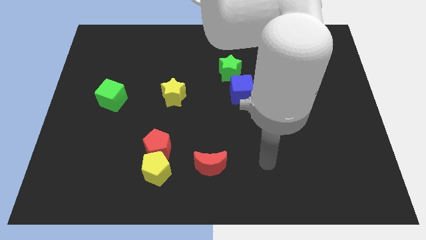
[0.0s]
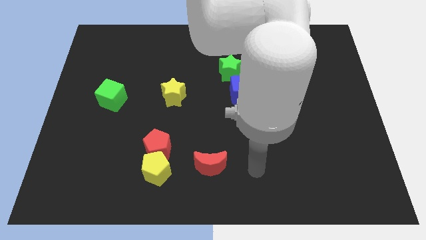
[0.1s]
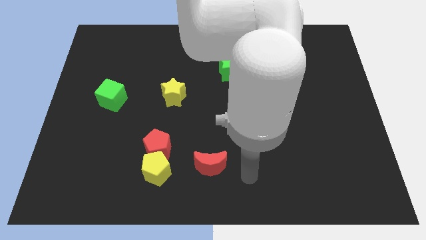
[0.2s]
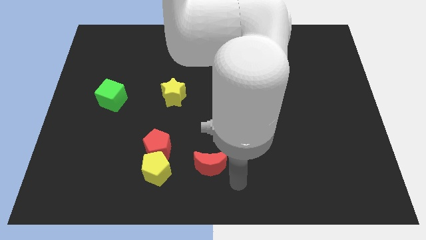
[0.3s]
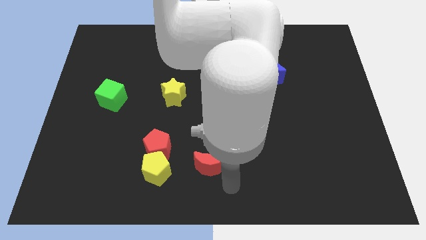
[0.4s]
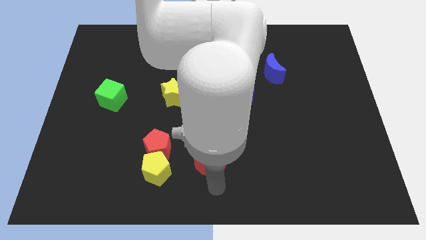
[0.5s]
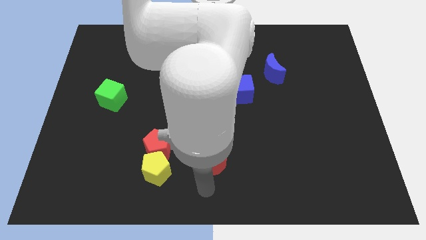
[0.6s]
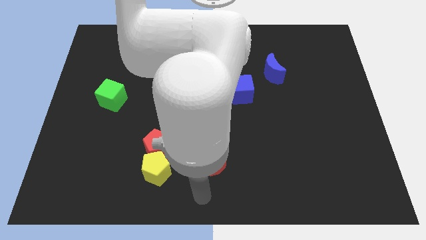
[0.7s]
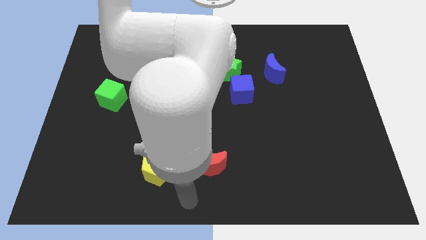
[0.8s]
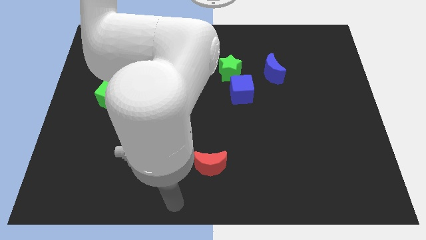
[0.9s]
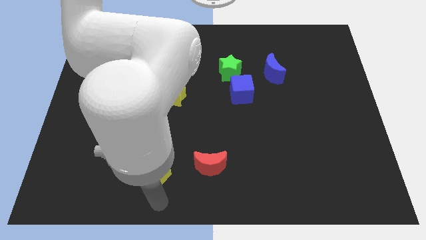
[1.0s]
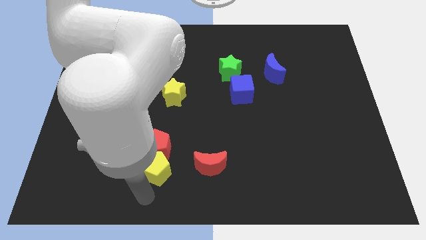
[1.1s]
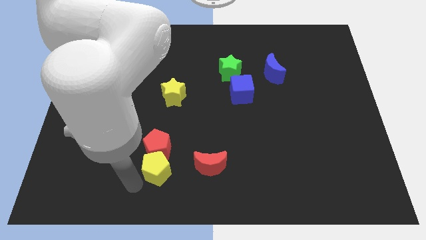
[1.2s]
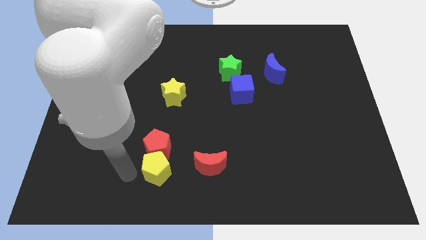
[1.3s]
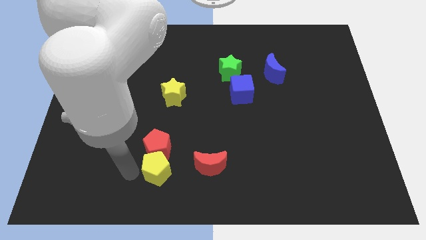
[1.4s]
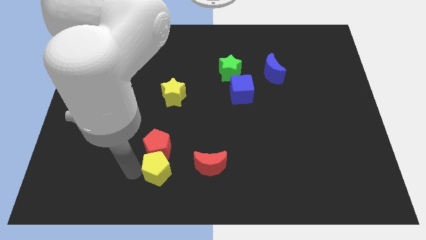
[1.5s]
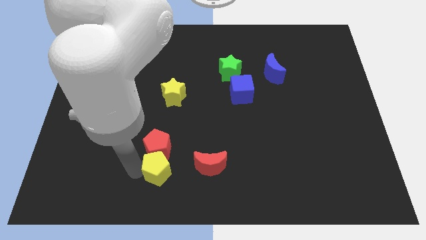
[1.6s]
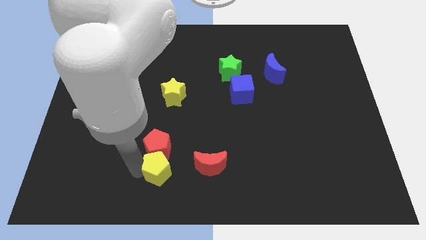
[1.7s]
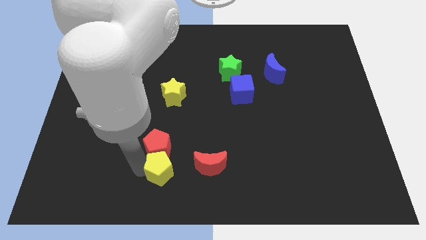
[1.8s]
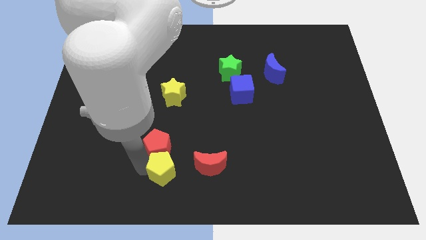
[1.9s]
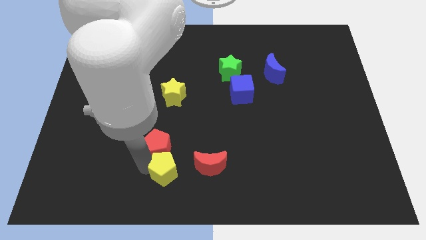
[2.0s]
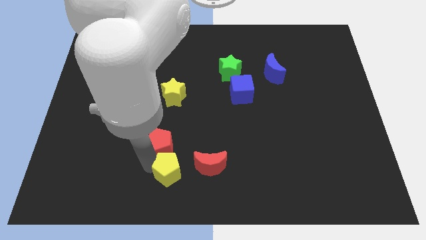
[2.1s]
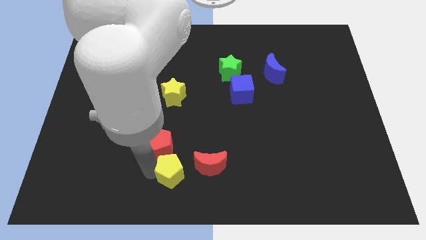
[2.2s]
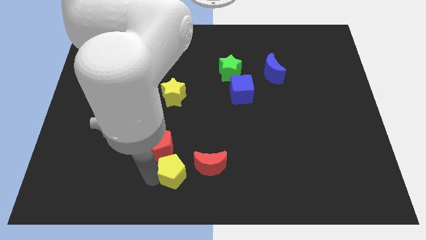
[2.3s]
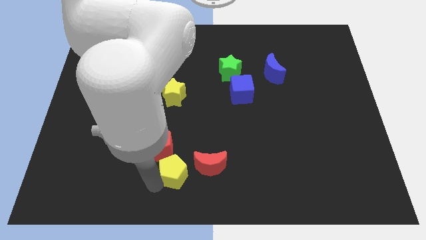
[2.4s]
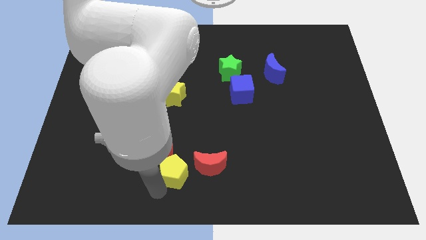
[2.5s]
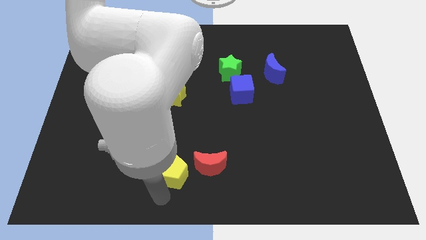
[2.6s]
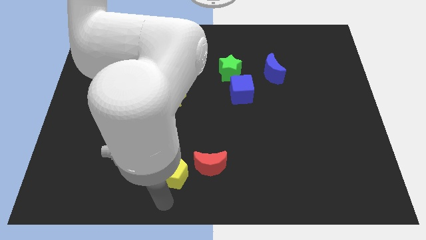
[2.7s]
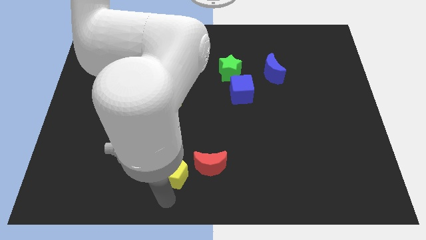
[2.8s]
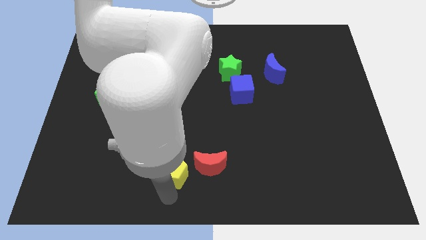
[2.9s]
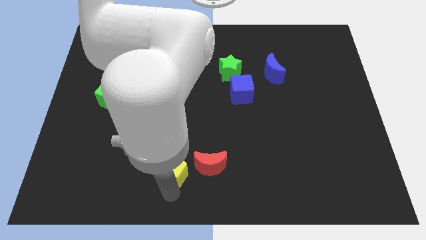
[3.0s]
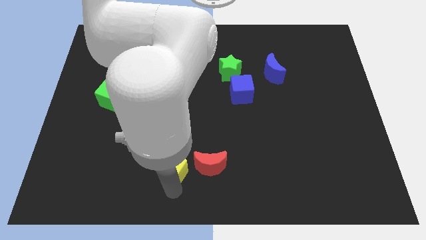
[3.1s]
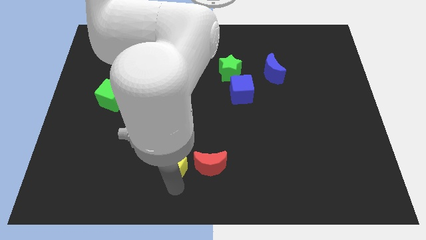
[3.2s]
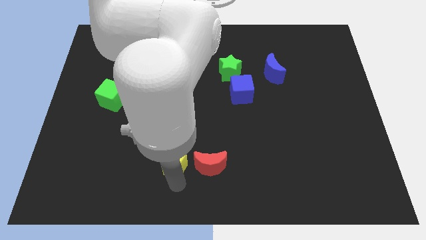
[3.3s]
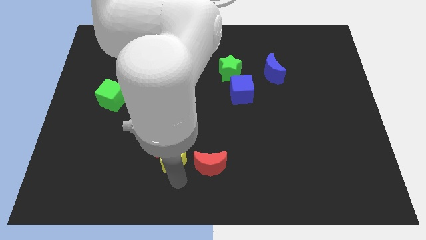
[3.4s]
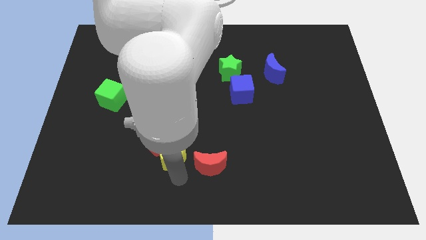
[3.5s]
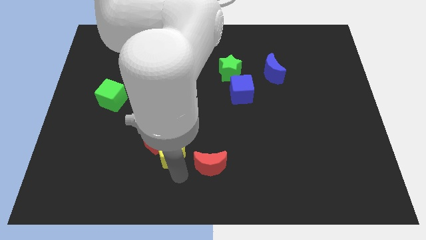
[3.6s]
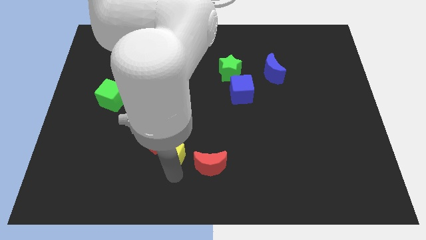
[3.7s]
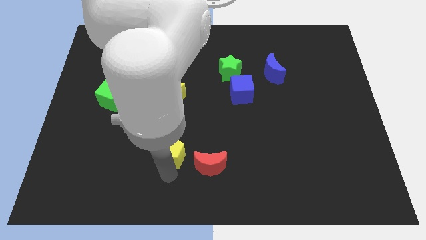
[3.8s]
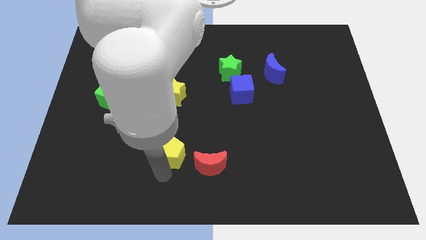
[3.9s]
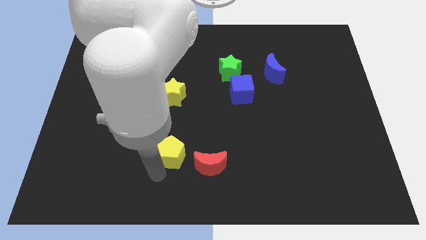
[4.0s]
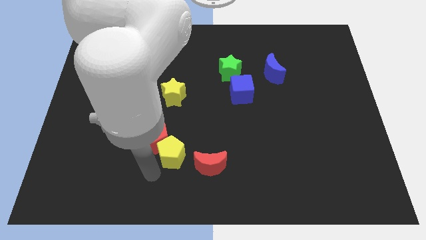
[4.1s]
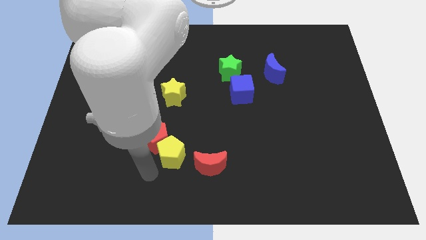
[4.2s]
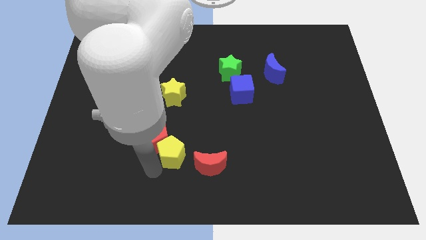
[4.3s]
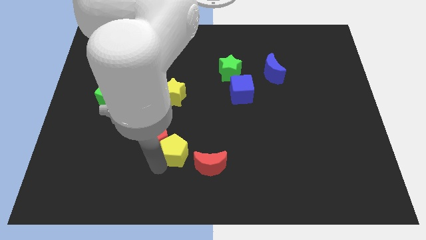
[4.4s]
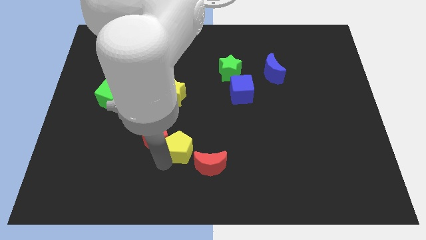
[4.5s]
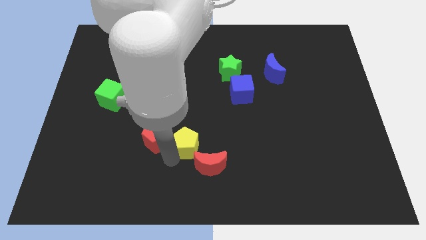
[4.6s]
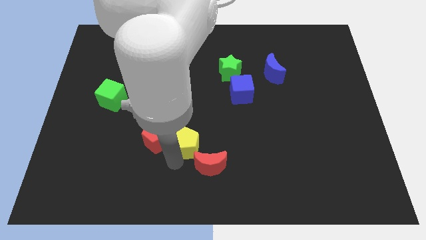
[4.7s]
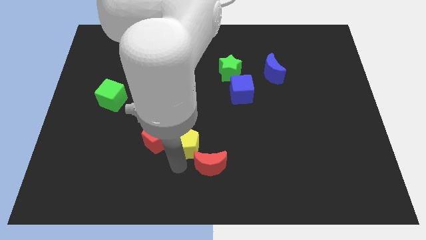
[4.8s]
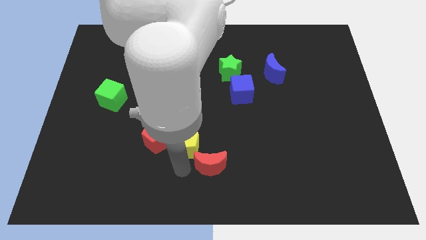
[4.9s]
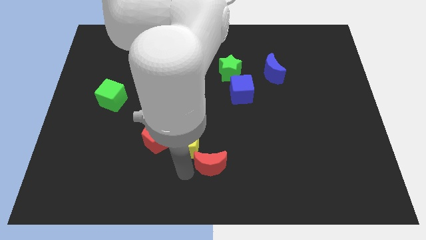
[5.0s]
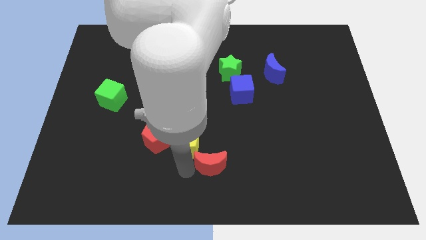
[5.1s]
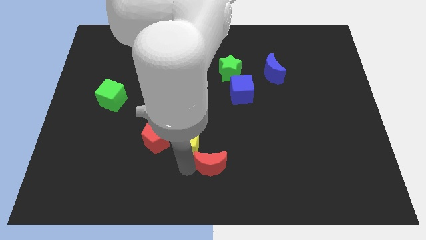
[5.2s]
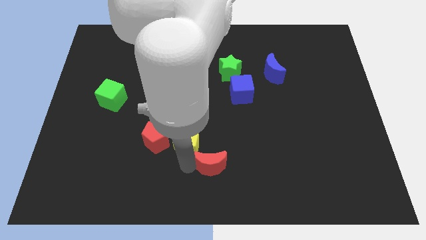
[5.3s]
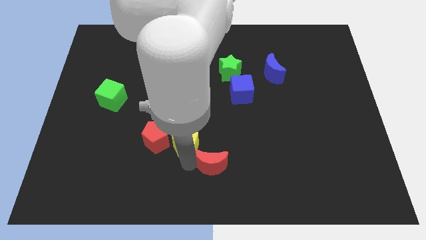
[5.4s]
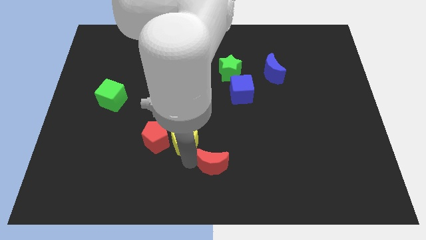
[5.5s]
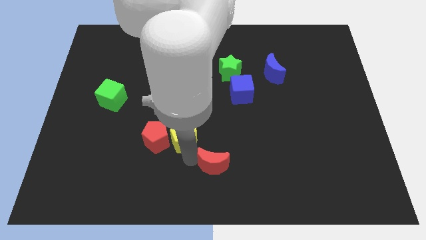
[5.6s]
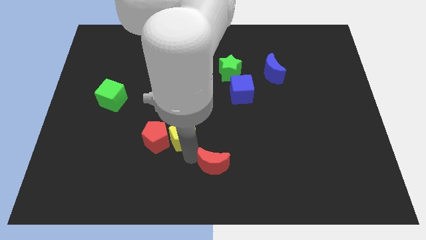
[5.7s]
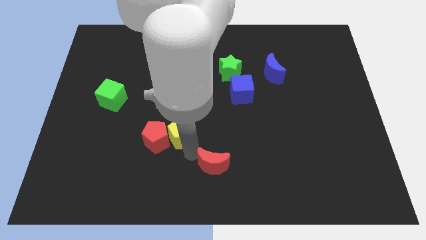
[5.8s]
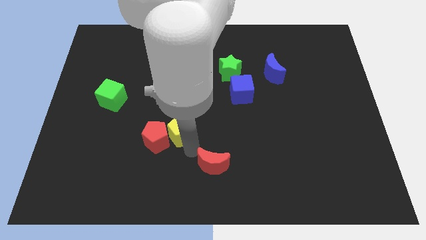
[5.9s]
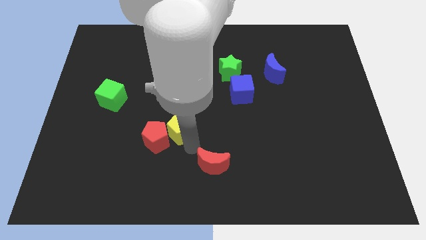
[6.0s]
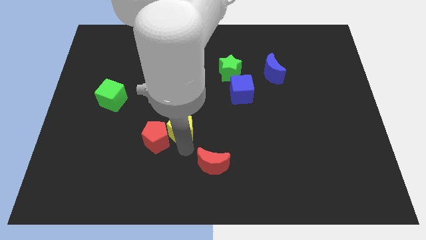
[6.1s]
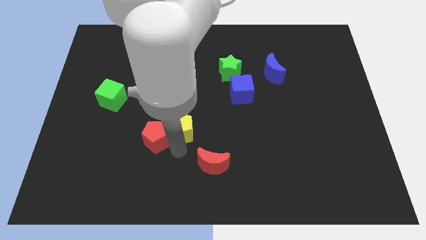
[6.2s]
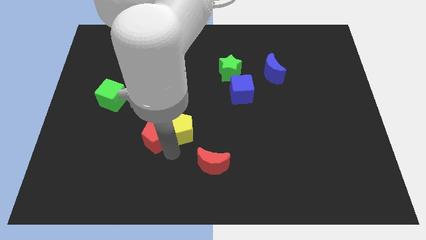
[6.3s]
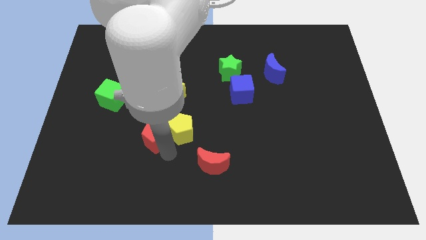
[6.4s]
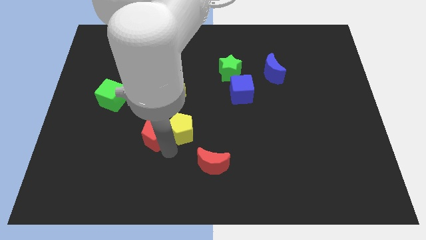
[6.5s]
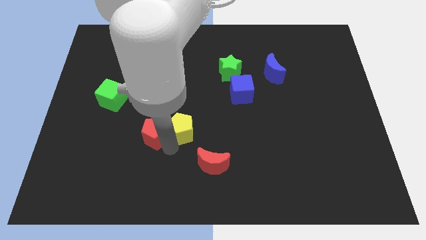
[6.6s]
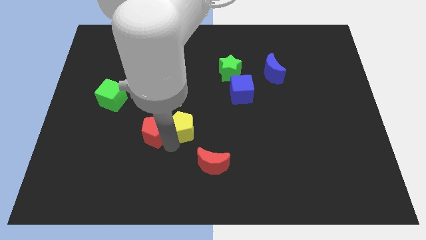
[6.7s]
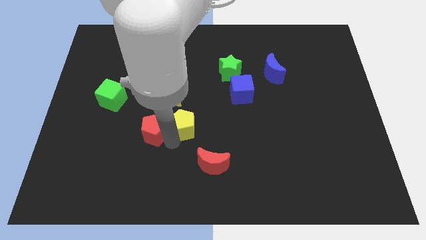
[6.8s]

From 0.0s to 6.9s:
move the yellow pentagon diagonally down and to the right of the yellow star

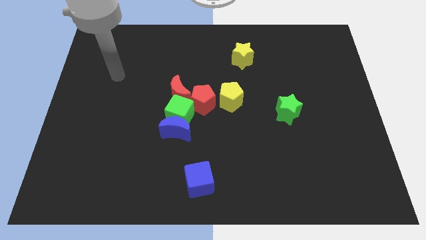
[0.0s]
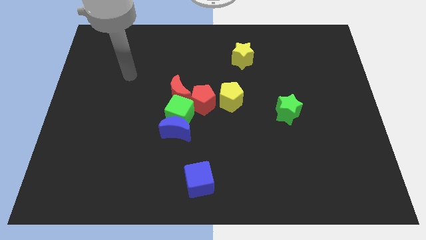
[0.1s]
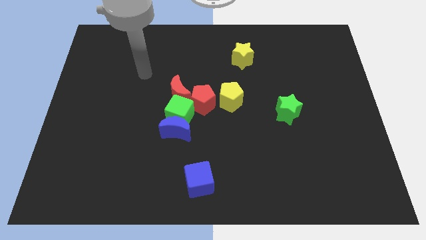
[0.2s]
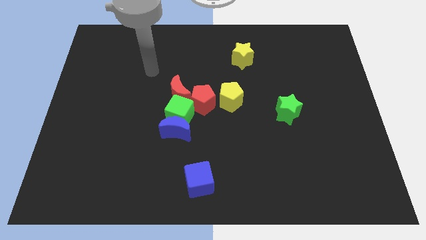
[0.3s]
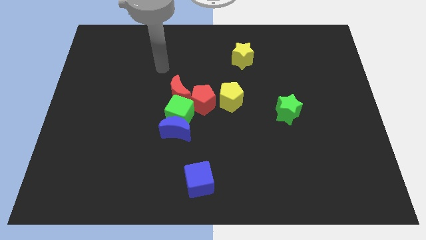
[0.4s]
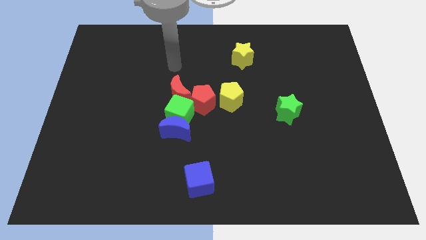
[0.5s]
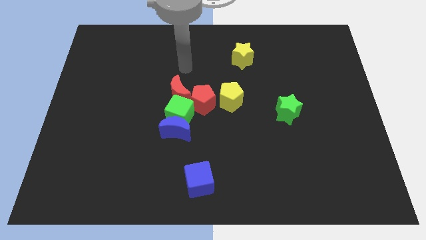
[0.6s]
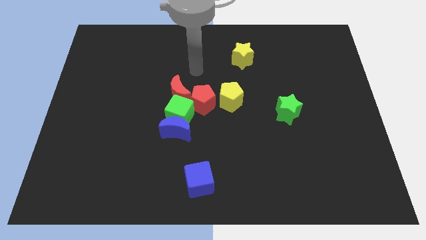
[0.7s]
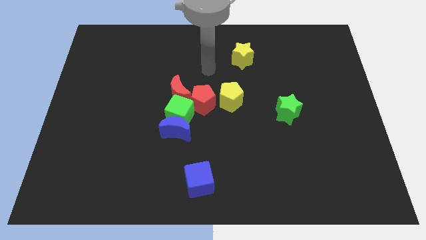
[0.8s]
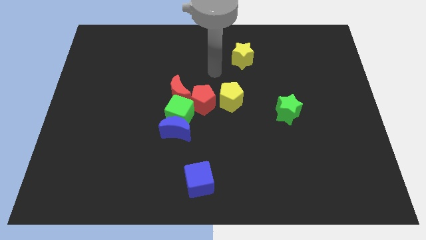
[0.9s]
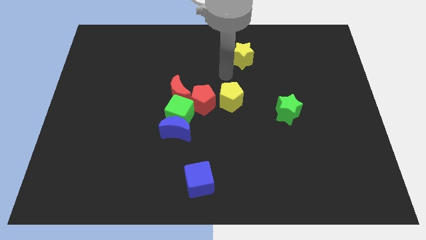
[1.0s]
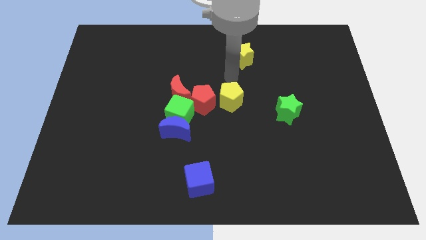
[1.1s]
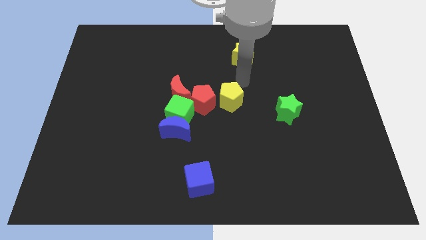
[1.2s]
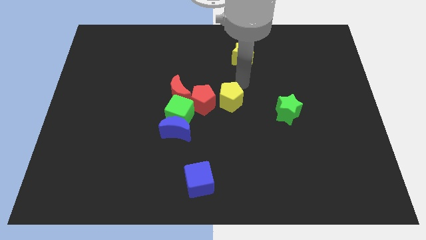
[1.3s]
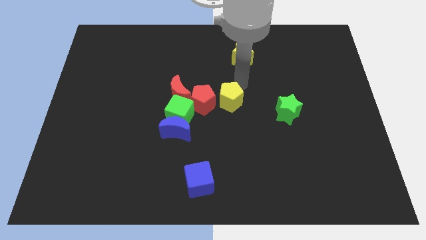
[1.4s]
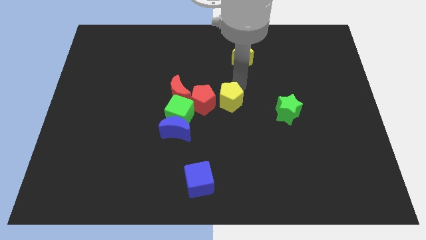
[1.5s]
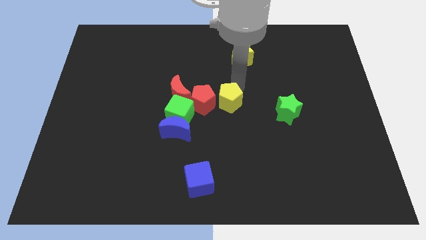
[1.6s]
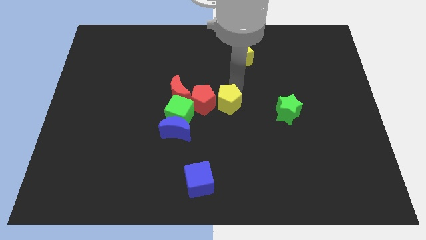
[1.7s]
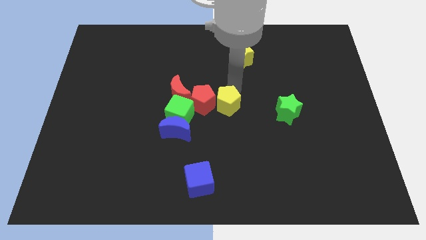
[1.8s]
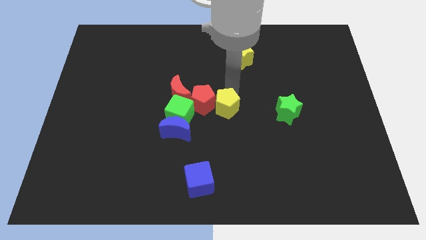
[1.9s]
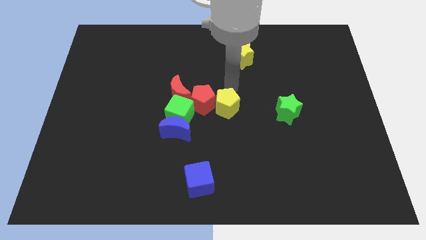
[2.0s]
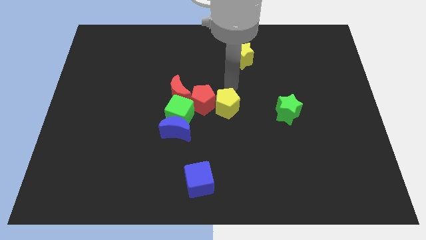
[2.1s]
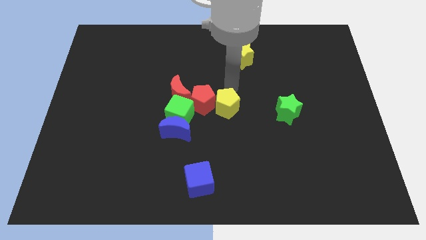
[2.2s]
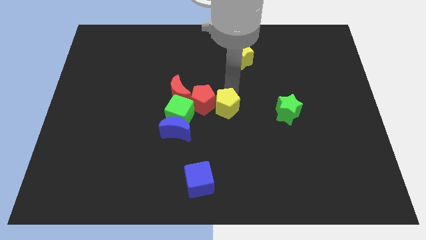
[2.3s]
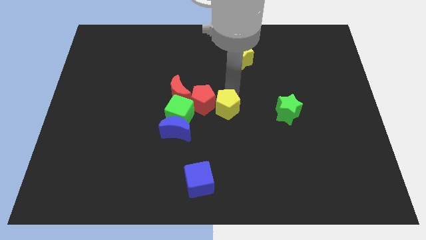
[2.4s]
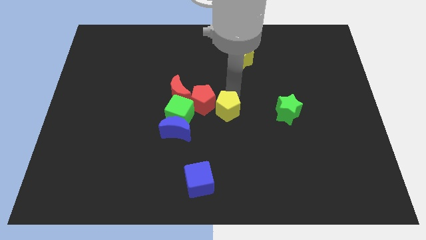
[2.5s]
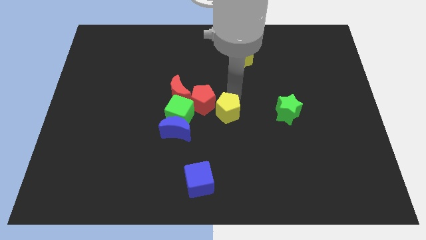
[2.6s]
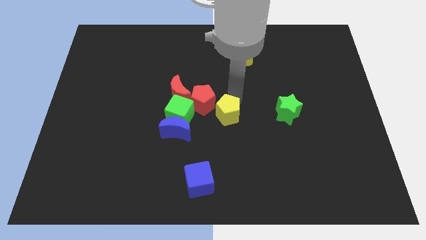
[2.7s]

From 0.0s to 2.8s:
move the yellow pentagon to the right side of the blue moon
